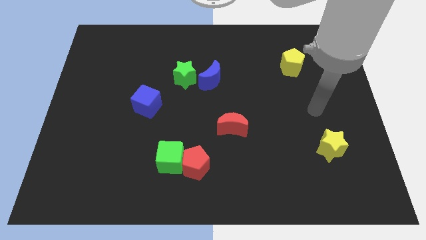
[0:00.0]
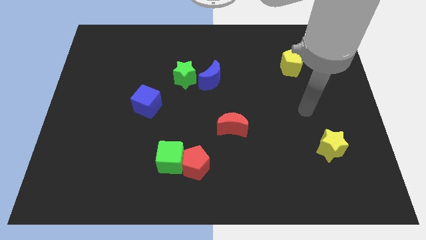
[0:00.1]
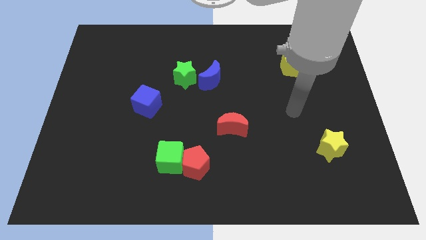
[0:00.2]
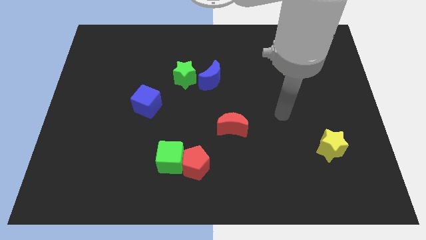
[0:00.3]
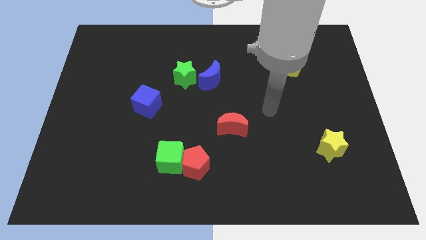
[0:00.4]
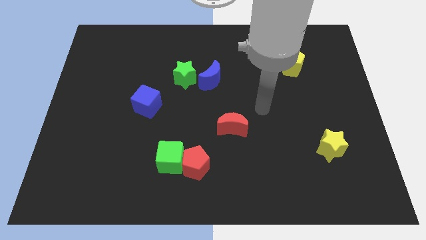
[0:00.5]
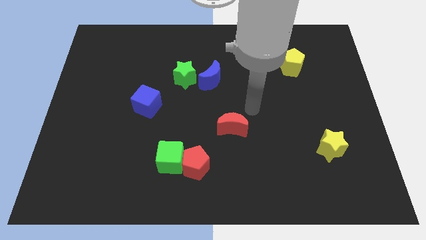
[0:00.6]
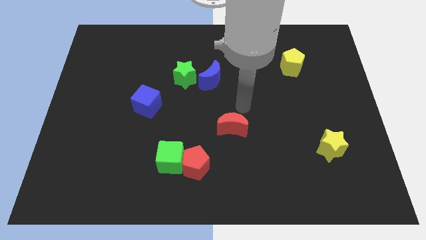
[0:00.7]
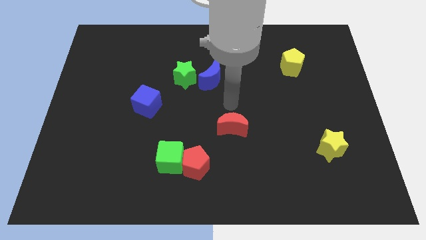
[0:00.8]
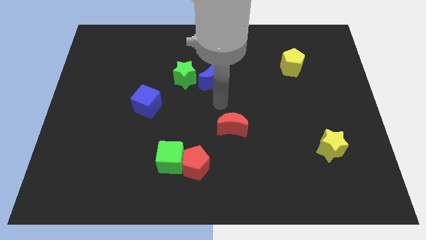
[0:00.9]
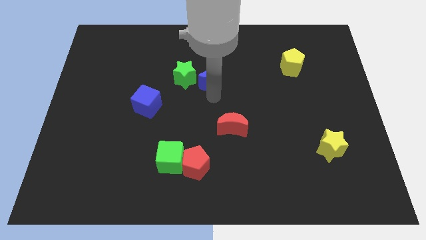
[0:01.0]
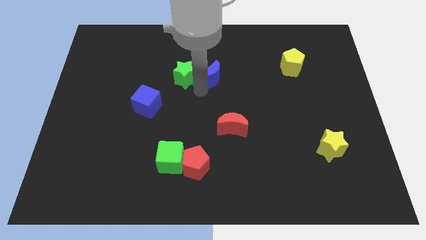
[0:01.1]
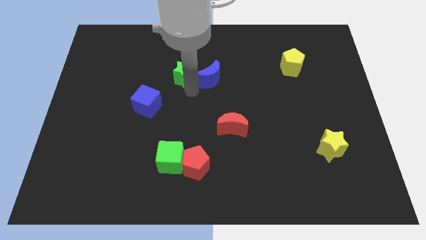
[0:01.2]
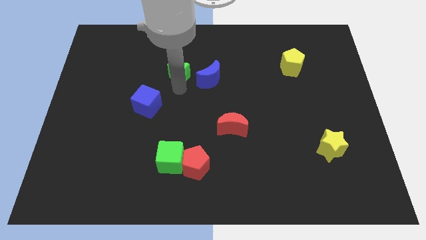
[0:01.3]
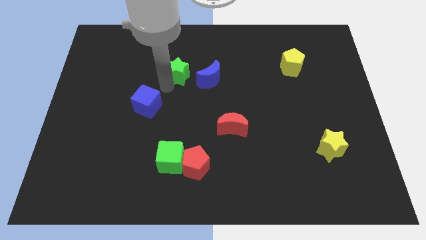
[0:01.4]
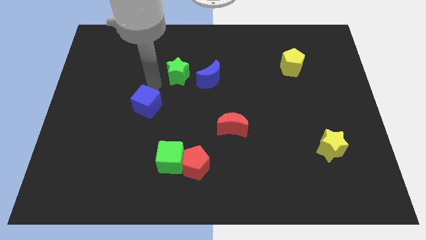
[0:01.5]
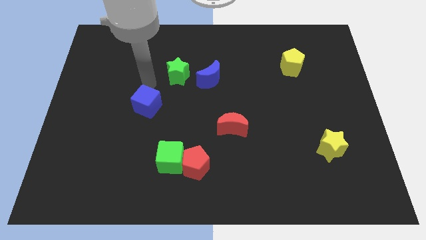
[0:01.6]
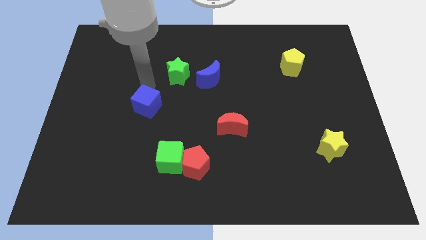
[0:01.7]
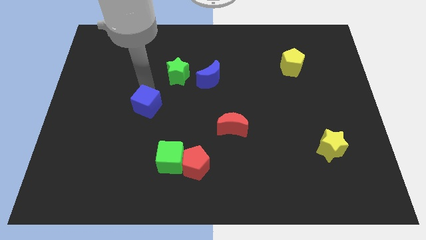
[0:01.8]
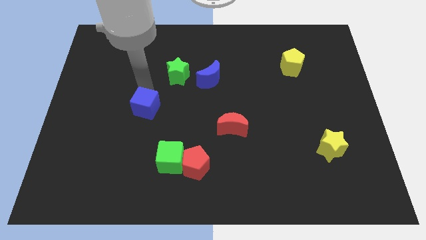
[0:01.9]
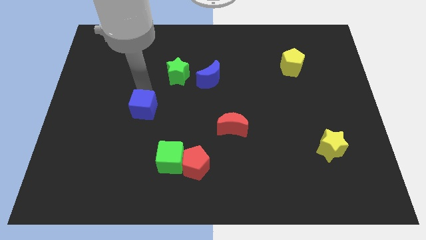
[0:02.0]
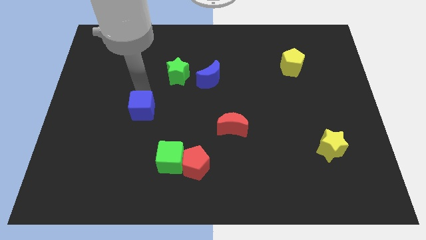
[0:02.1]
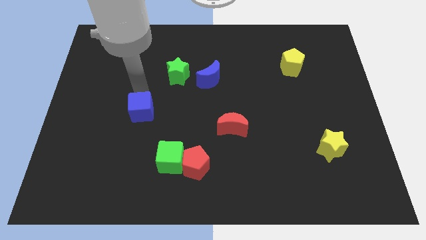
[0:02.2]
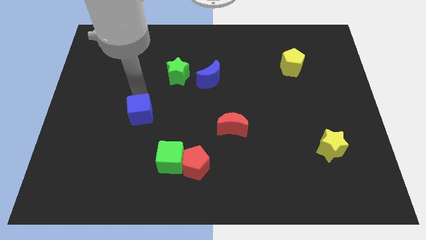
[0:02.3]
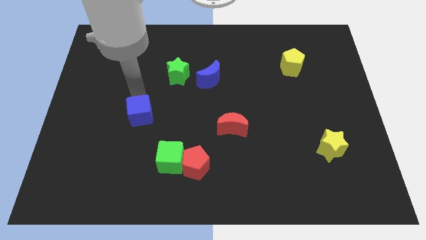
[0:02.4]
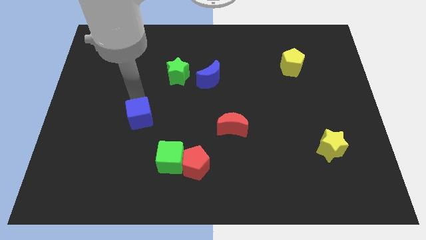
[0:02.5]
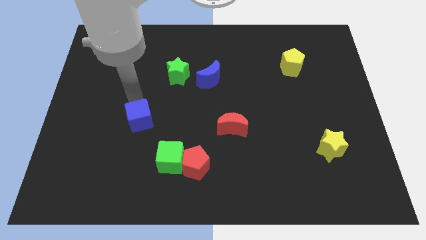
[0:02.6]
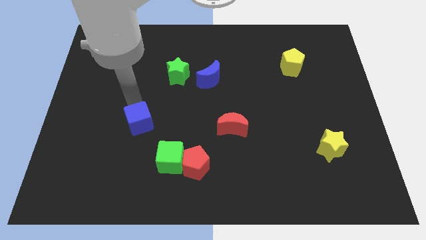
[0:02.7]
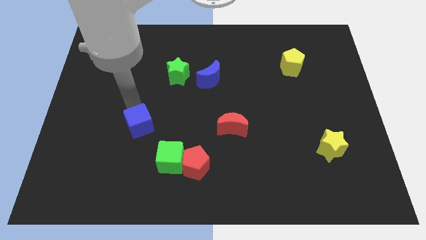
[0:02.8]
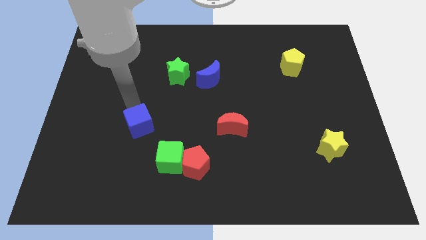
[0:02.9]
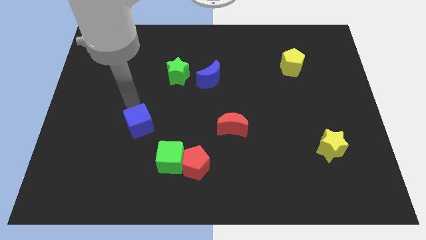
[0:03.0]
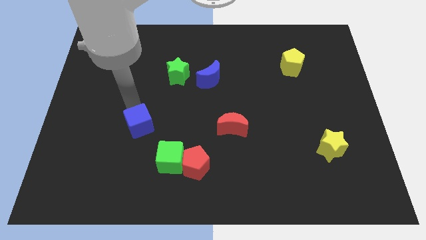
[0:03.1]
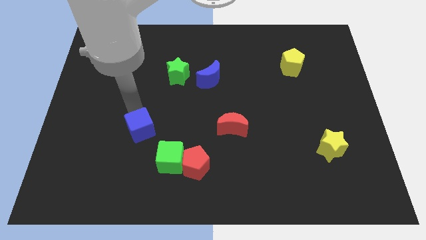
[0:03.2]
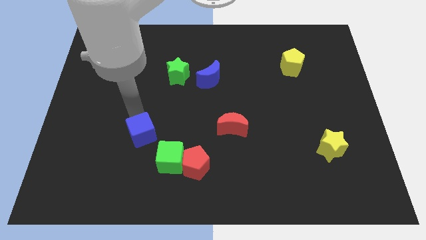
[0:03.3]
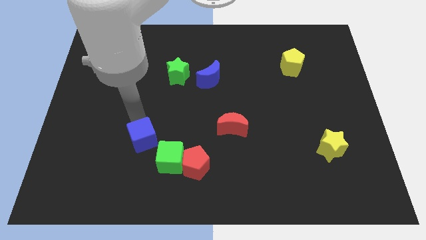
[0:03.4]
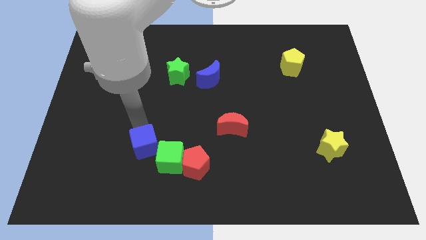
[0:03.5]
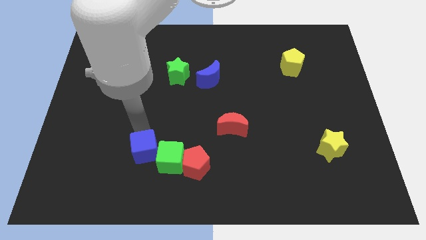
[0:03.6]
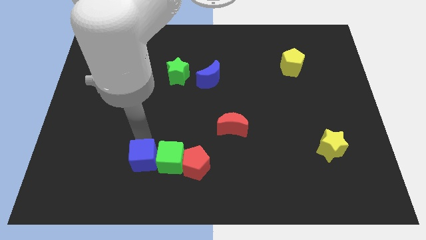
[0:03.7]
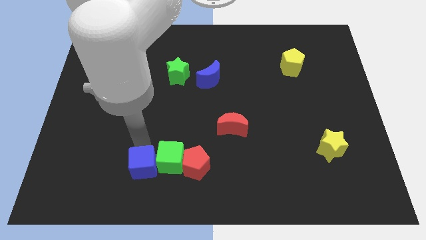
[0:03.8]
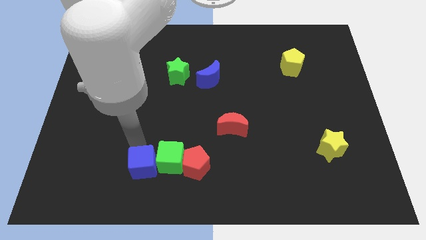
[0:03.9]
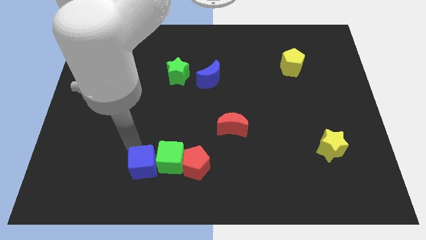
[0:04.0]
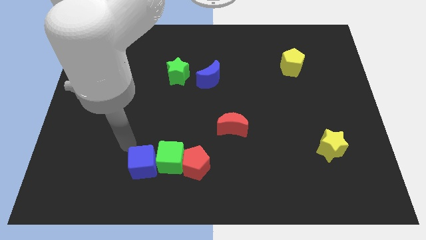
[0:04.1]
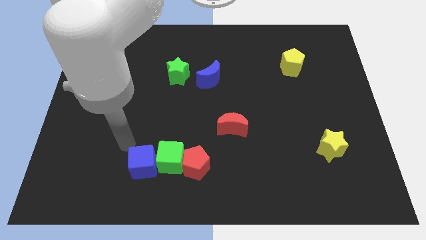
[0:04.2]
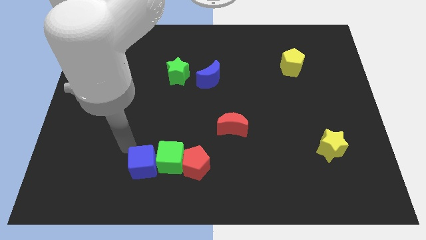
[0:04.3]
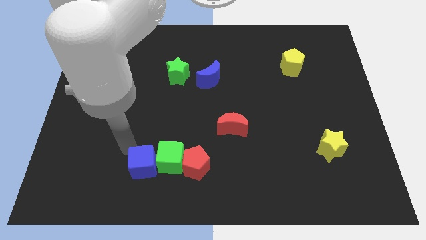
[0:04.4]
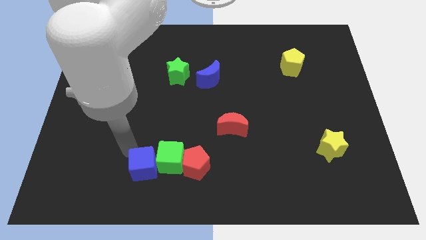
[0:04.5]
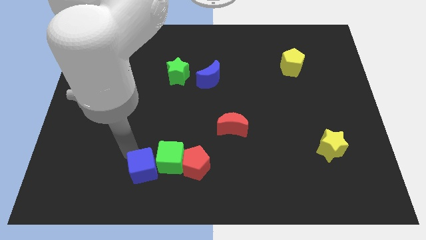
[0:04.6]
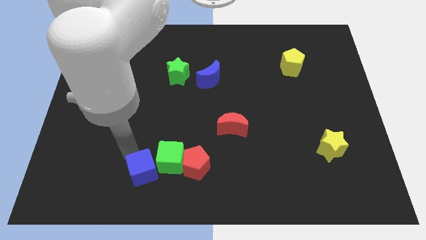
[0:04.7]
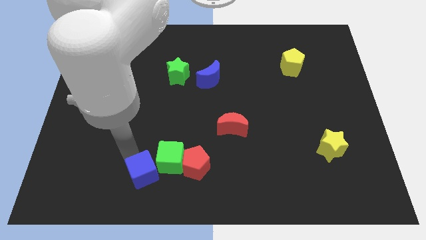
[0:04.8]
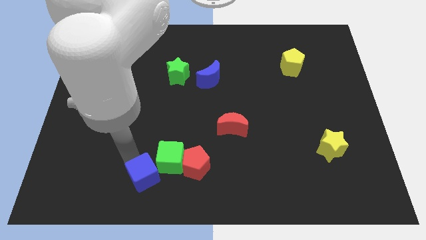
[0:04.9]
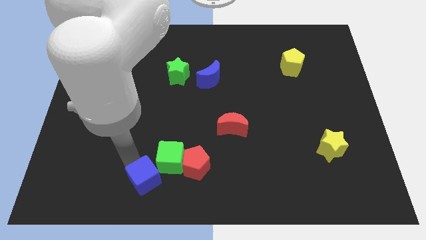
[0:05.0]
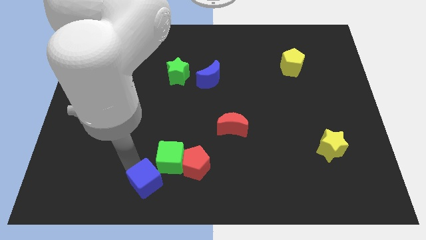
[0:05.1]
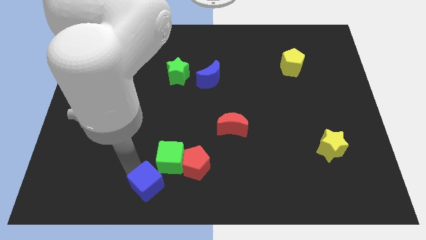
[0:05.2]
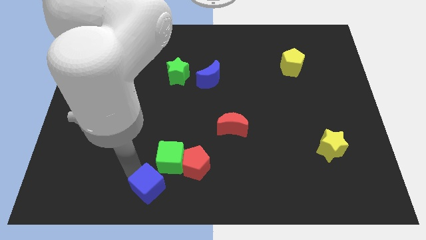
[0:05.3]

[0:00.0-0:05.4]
push the blue cube to the bottom

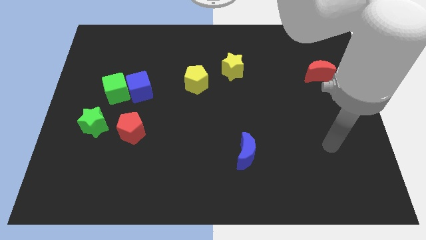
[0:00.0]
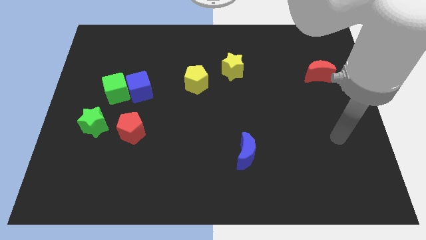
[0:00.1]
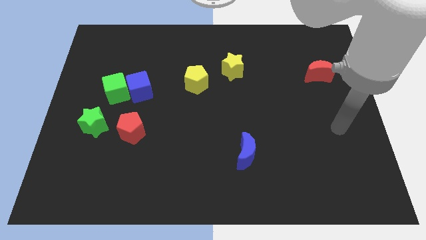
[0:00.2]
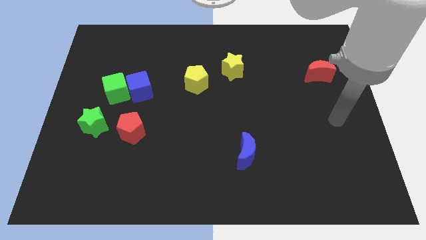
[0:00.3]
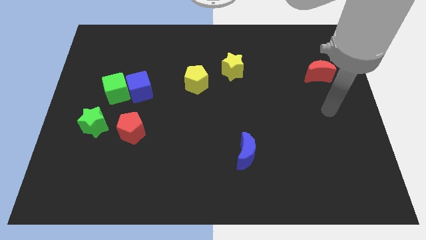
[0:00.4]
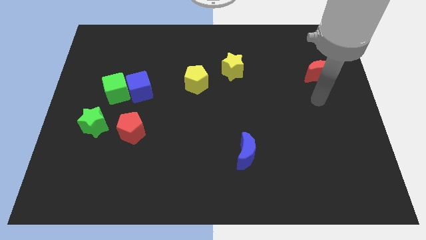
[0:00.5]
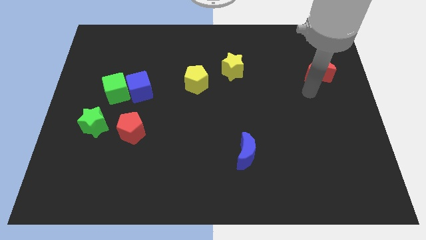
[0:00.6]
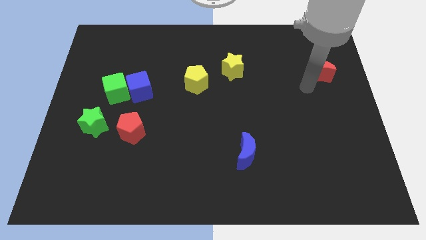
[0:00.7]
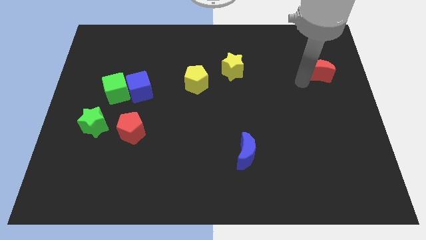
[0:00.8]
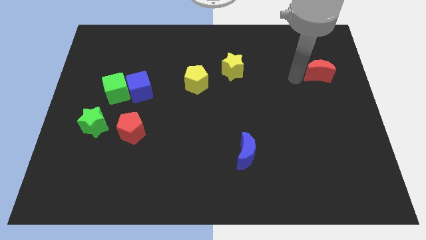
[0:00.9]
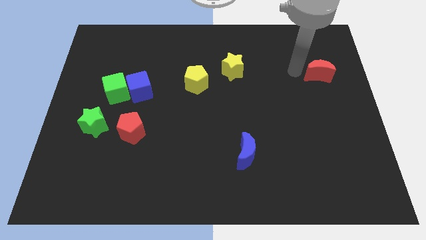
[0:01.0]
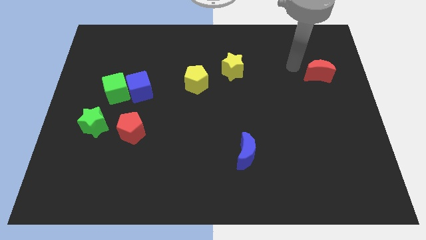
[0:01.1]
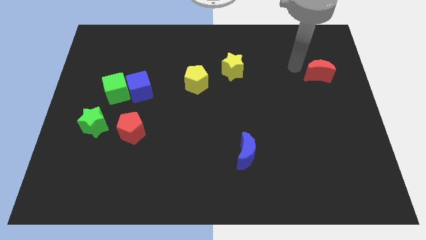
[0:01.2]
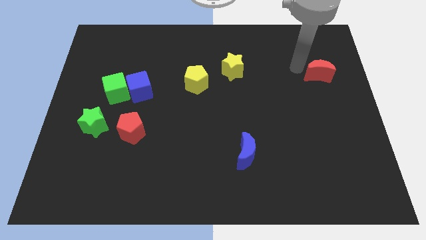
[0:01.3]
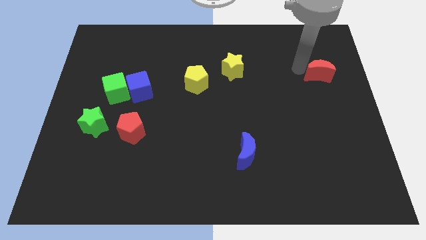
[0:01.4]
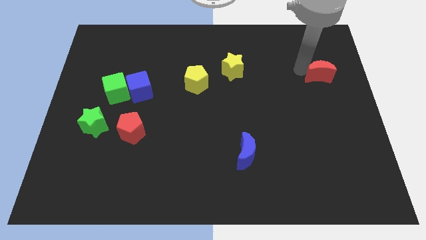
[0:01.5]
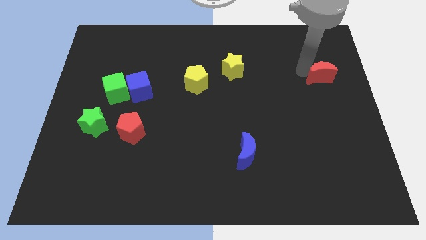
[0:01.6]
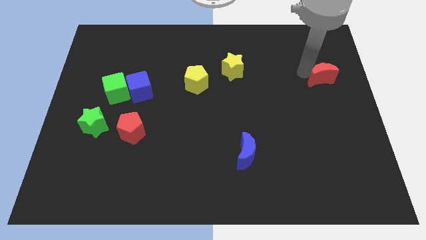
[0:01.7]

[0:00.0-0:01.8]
move the red moon to the right side
